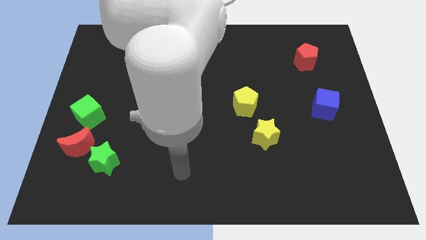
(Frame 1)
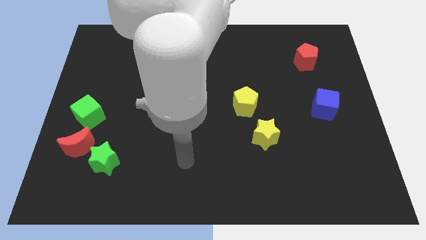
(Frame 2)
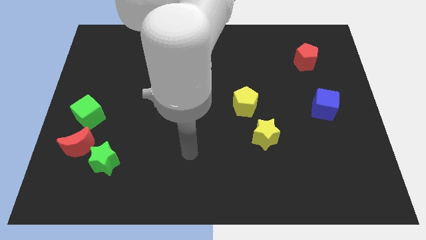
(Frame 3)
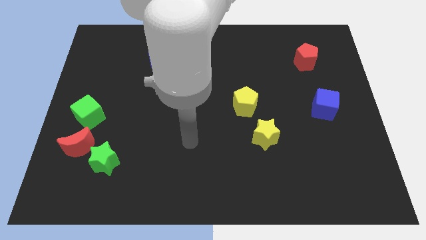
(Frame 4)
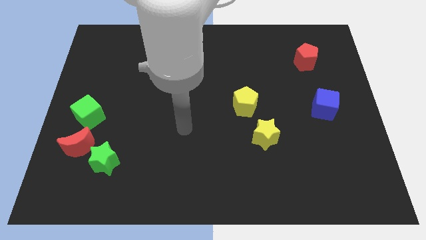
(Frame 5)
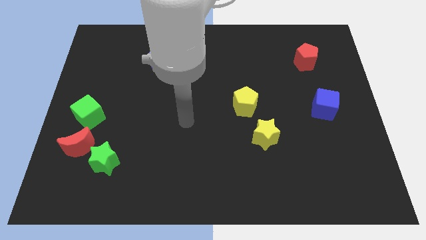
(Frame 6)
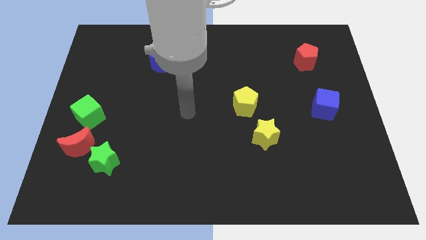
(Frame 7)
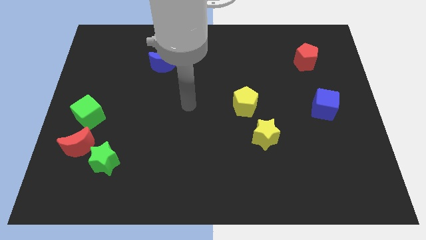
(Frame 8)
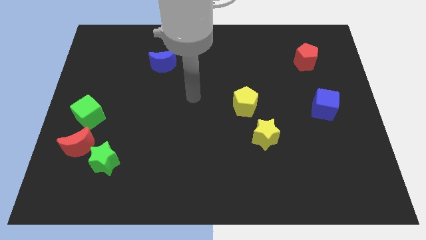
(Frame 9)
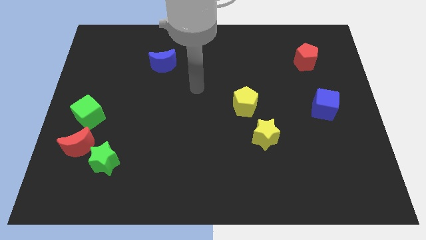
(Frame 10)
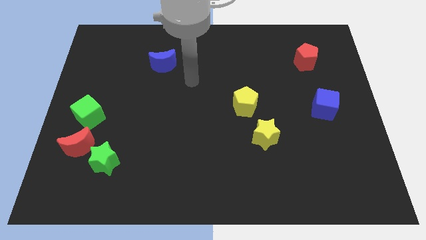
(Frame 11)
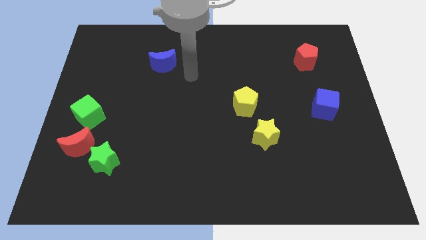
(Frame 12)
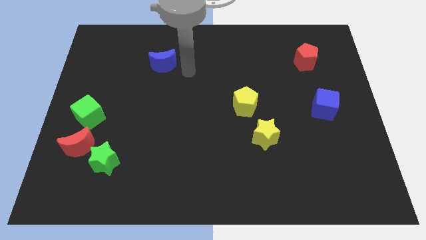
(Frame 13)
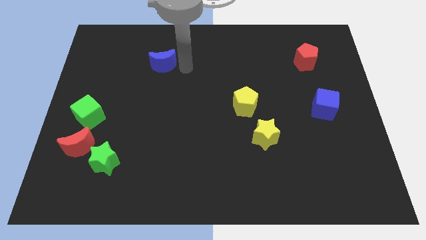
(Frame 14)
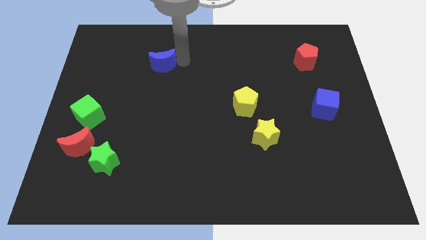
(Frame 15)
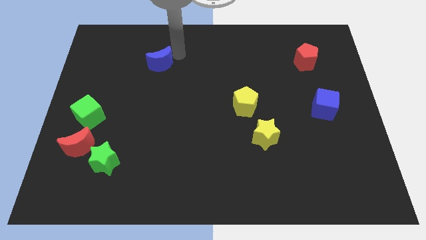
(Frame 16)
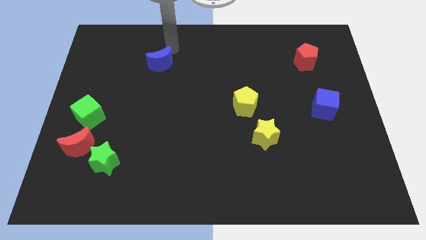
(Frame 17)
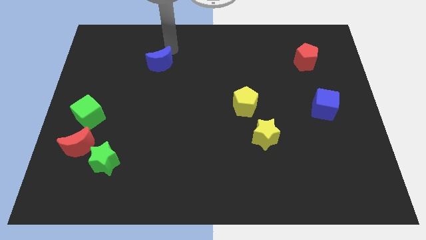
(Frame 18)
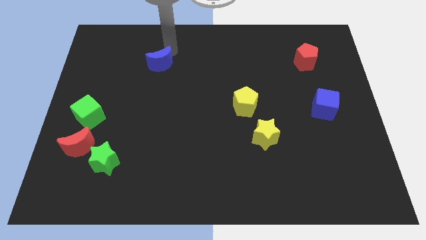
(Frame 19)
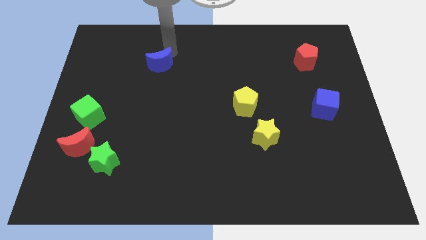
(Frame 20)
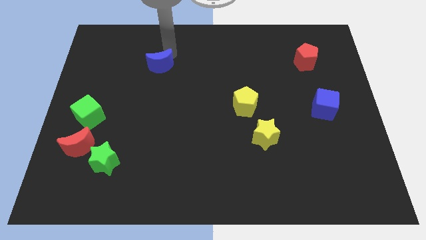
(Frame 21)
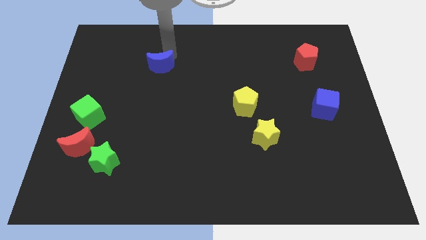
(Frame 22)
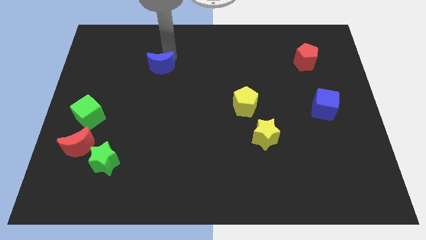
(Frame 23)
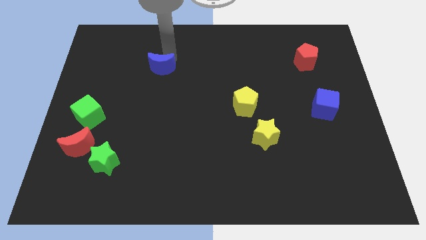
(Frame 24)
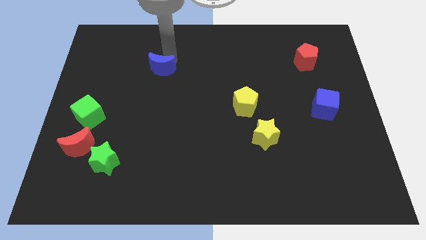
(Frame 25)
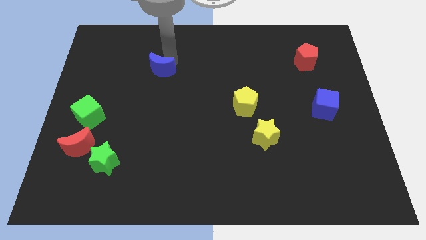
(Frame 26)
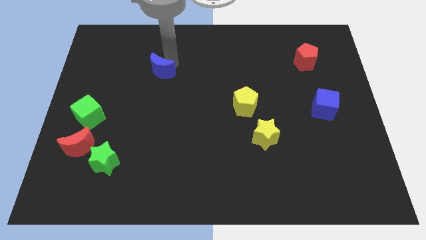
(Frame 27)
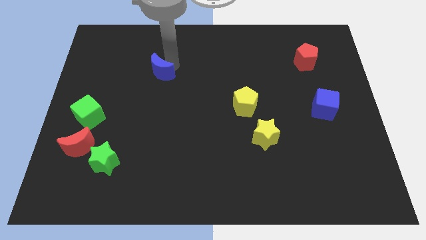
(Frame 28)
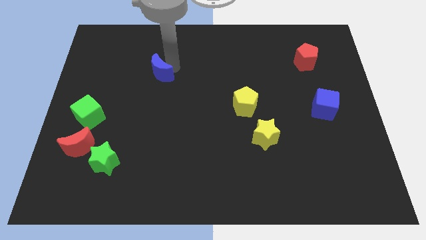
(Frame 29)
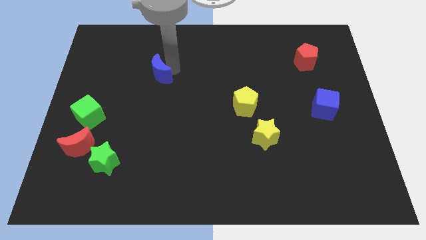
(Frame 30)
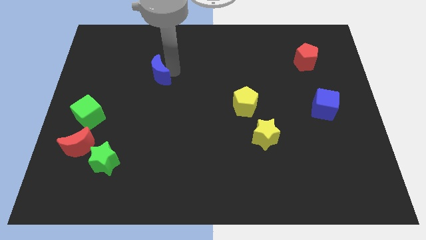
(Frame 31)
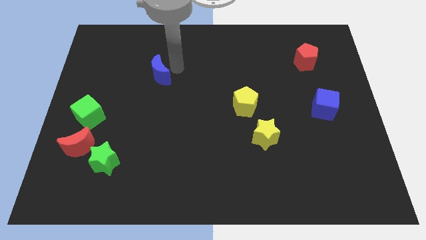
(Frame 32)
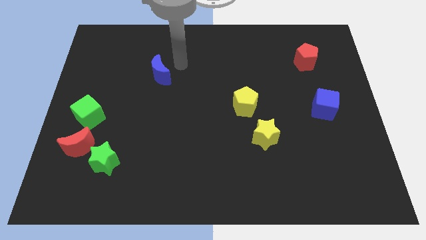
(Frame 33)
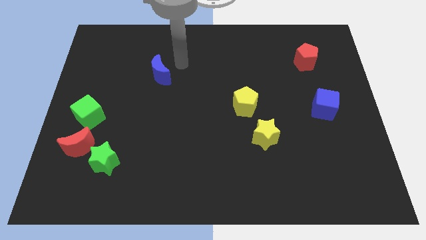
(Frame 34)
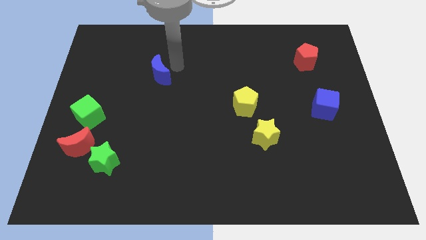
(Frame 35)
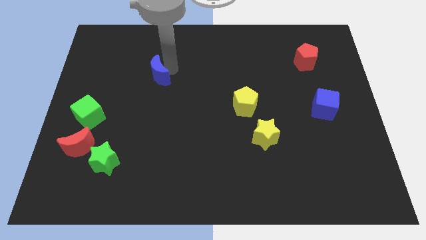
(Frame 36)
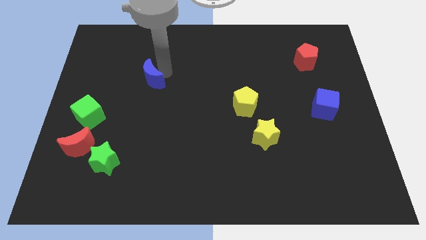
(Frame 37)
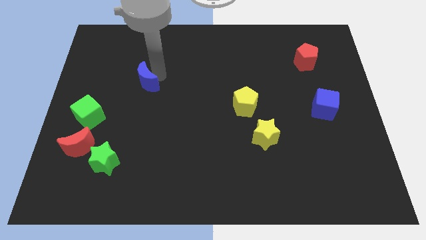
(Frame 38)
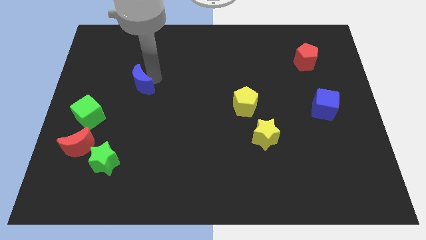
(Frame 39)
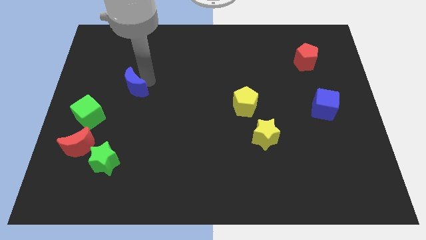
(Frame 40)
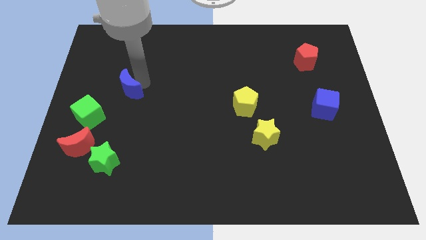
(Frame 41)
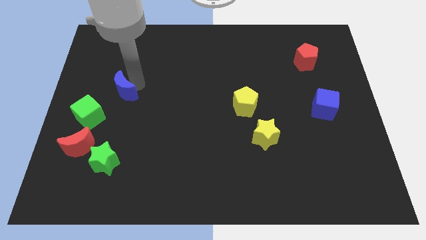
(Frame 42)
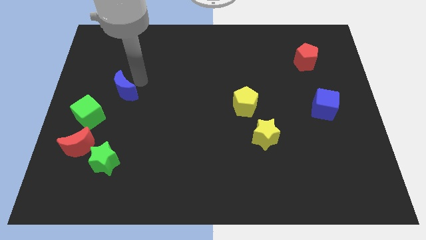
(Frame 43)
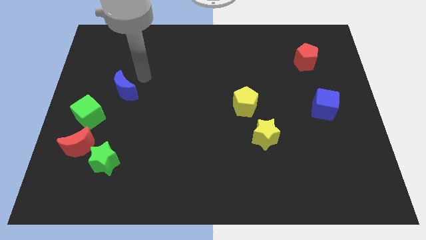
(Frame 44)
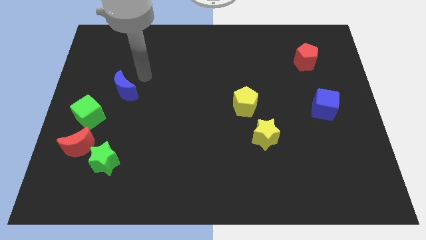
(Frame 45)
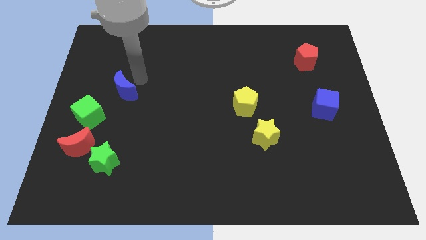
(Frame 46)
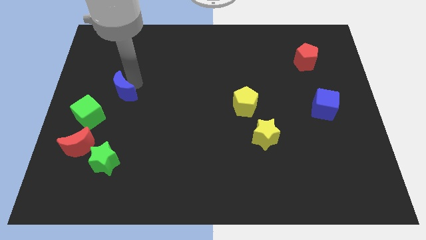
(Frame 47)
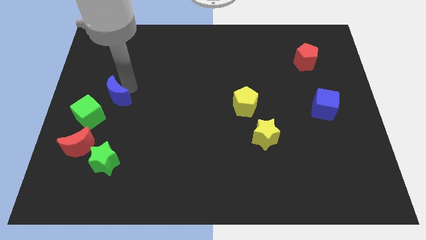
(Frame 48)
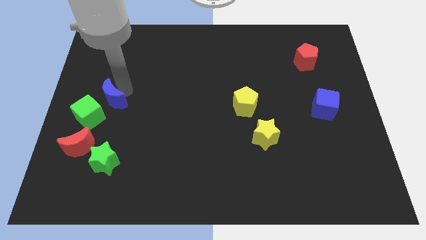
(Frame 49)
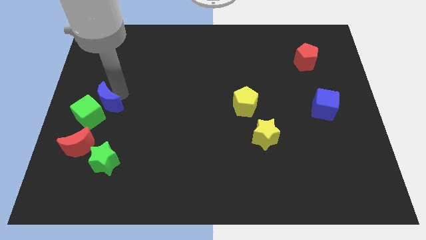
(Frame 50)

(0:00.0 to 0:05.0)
put the blue moon close to the green cube

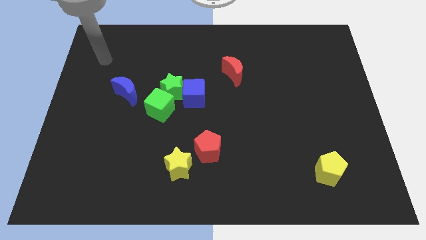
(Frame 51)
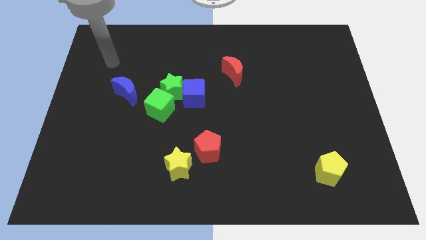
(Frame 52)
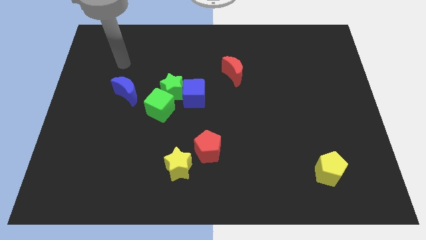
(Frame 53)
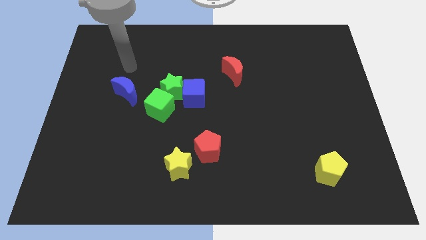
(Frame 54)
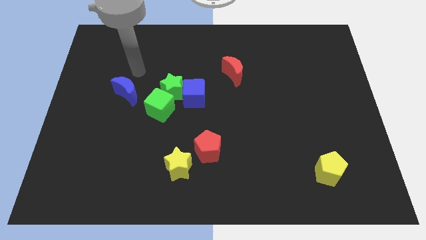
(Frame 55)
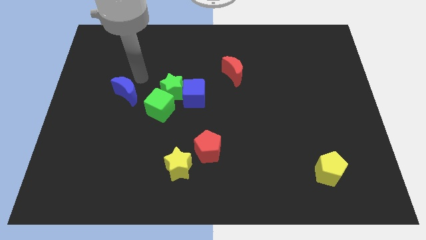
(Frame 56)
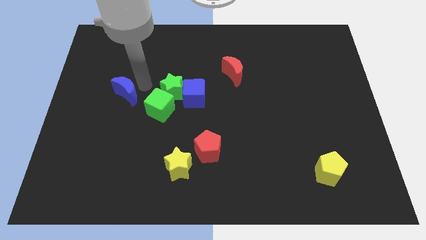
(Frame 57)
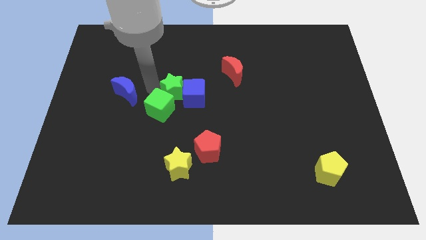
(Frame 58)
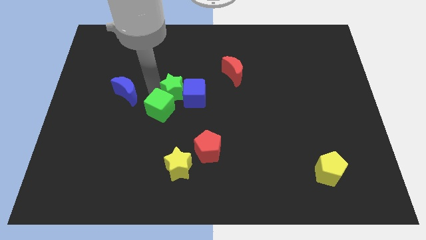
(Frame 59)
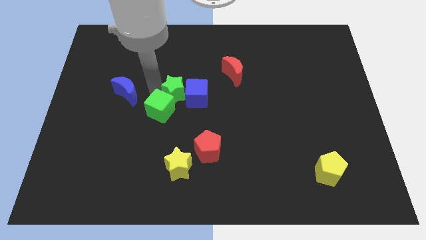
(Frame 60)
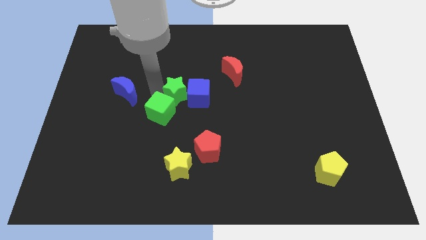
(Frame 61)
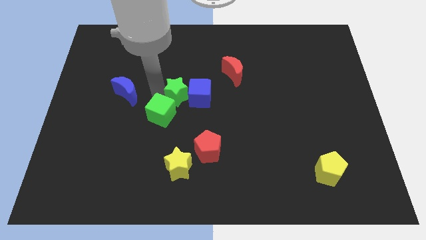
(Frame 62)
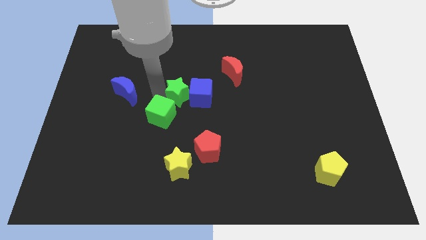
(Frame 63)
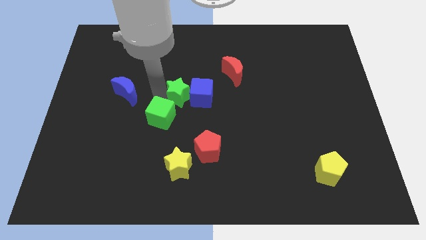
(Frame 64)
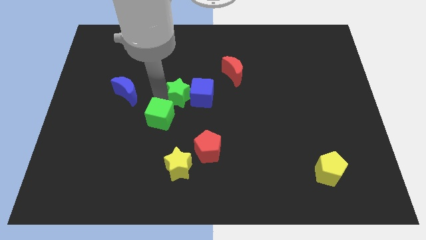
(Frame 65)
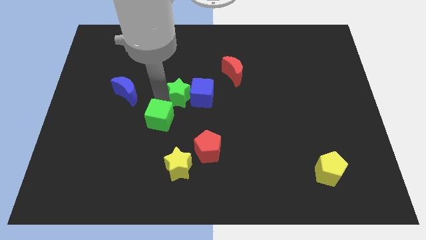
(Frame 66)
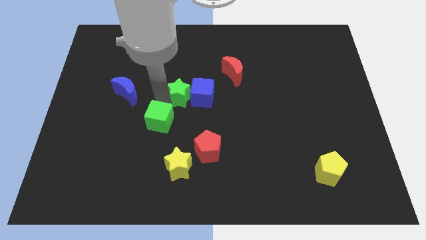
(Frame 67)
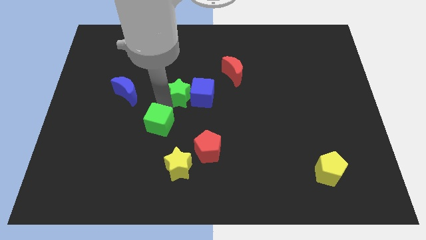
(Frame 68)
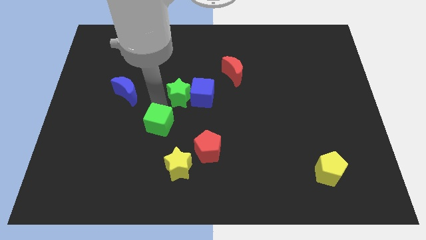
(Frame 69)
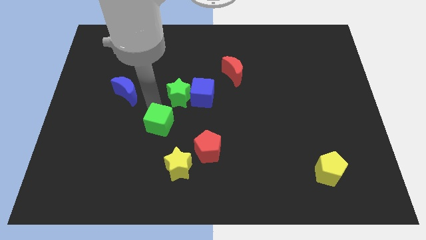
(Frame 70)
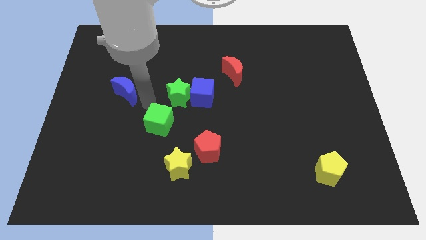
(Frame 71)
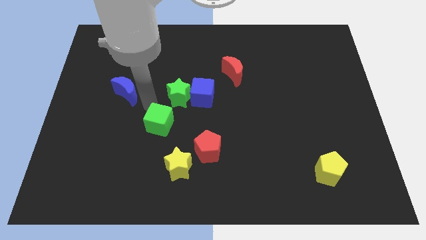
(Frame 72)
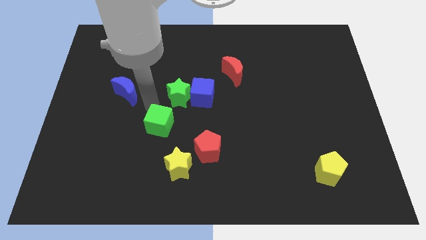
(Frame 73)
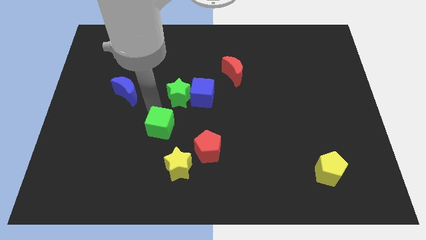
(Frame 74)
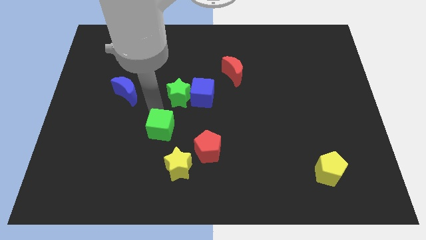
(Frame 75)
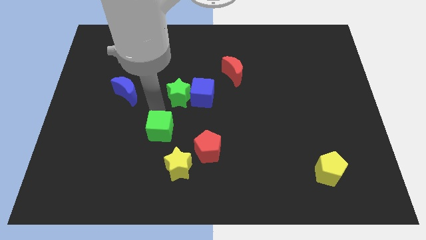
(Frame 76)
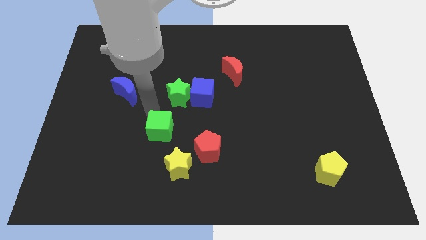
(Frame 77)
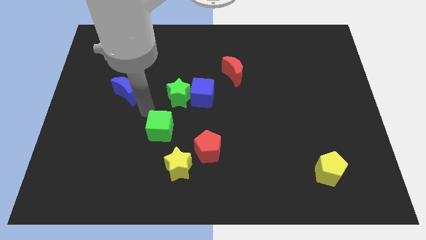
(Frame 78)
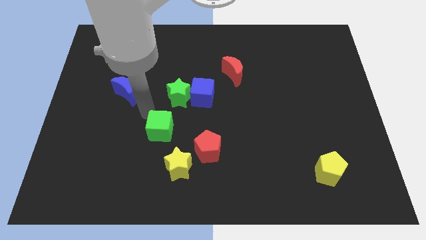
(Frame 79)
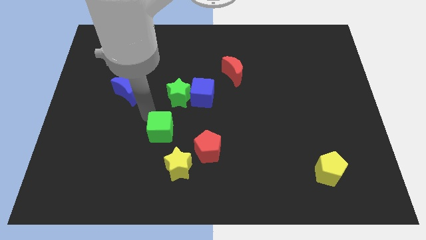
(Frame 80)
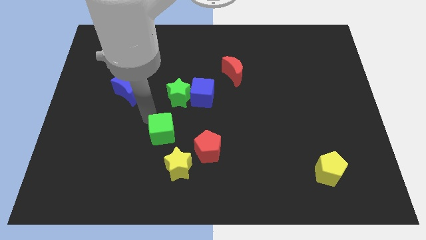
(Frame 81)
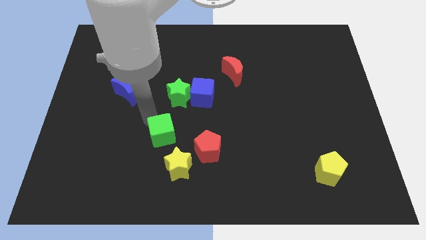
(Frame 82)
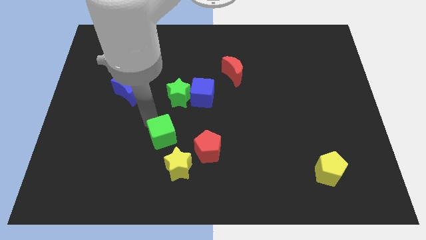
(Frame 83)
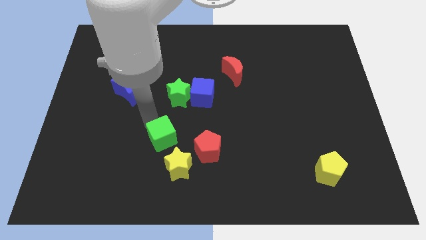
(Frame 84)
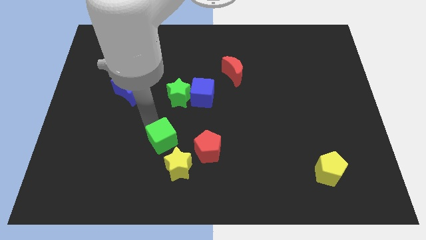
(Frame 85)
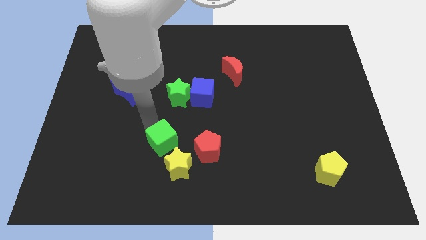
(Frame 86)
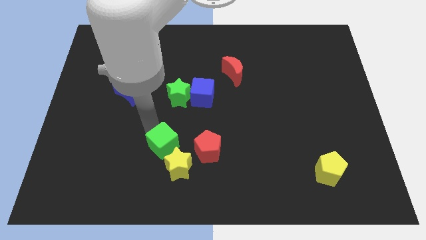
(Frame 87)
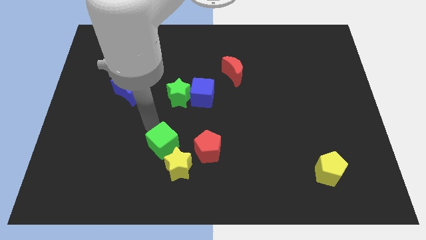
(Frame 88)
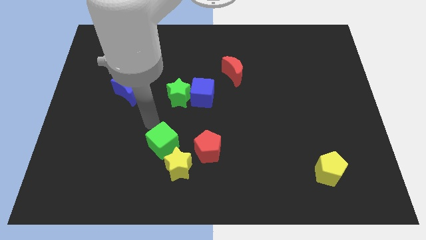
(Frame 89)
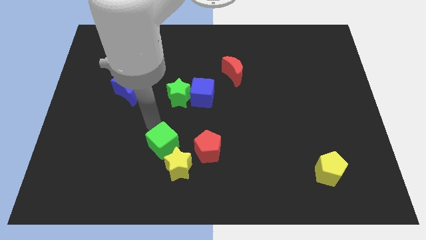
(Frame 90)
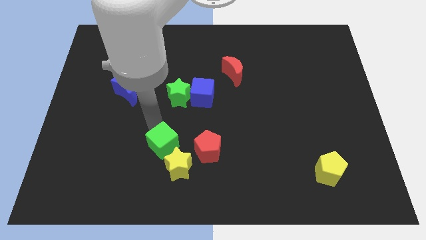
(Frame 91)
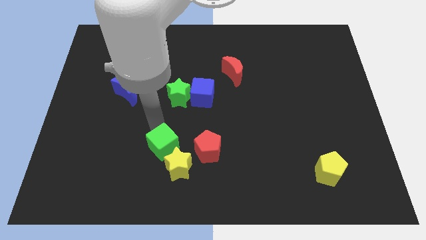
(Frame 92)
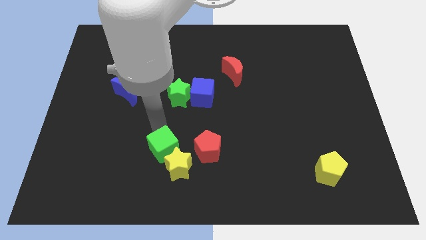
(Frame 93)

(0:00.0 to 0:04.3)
move the green cube close to the yellow star
